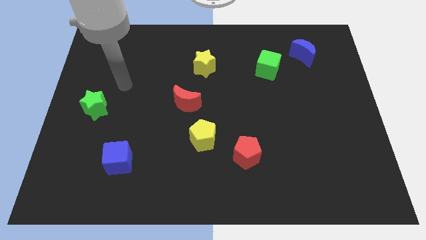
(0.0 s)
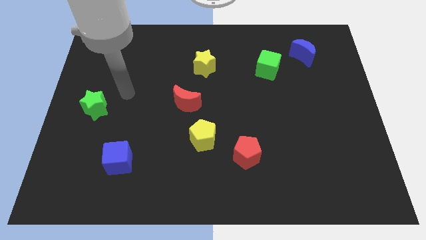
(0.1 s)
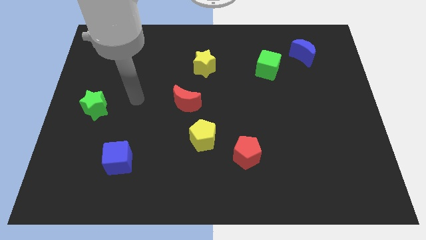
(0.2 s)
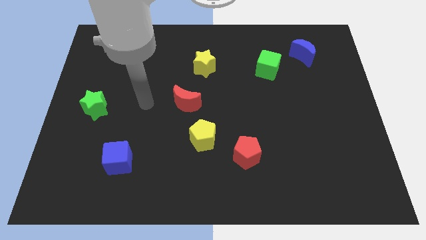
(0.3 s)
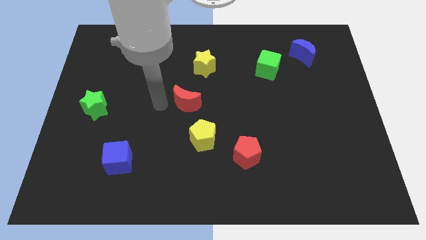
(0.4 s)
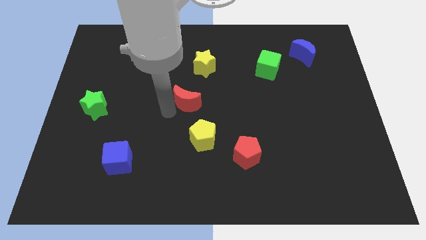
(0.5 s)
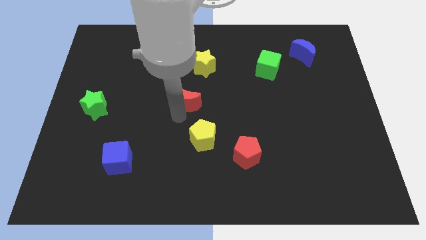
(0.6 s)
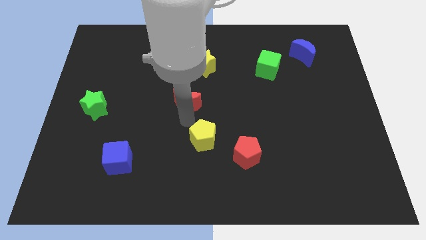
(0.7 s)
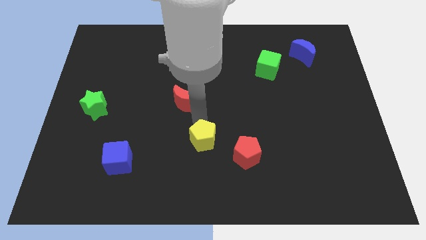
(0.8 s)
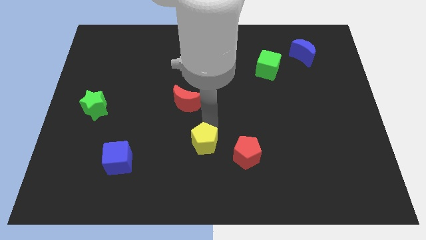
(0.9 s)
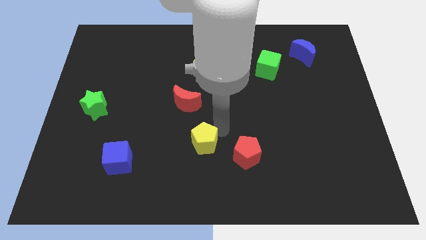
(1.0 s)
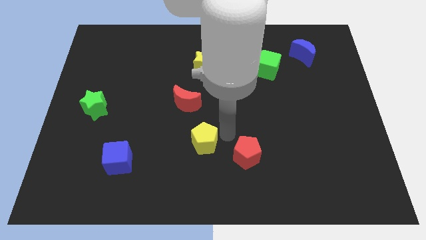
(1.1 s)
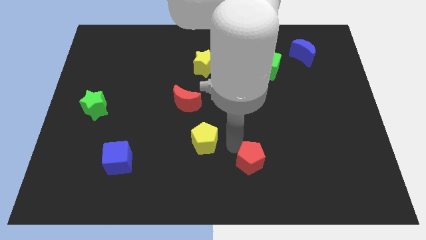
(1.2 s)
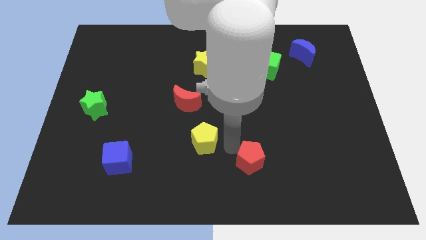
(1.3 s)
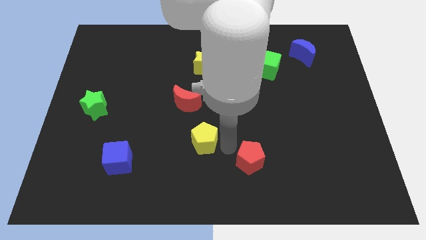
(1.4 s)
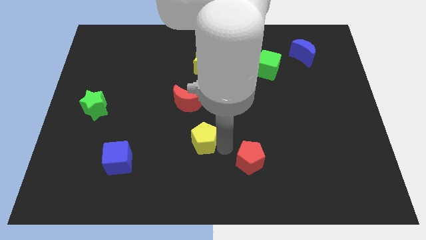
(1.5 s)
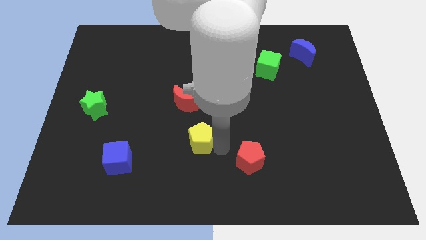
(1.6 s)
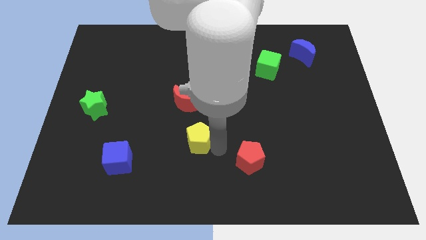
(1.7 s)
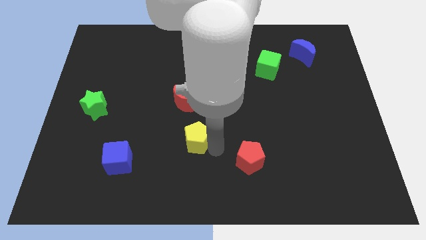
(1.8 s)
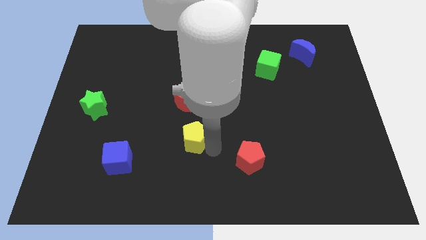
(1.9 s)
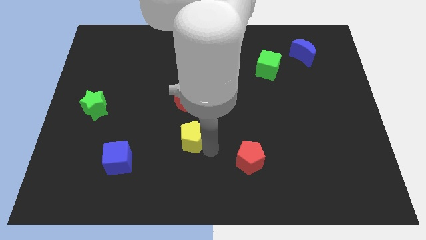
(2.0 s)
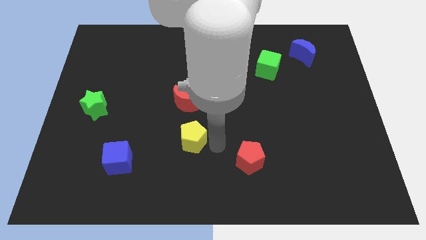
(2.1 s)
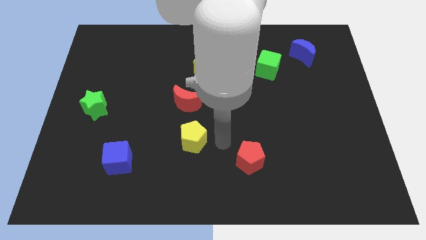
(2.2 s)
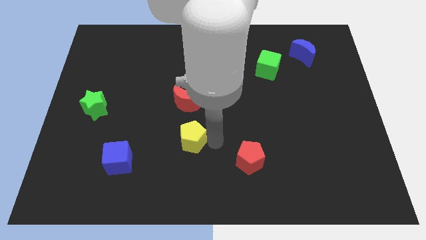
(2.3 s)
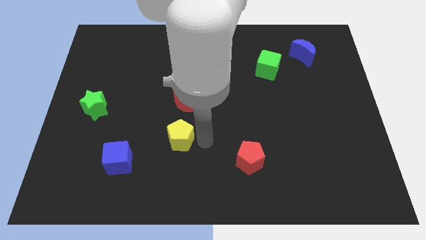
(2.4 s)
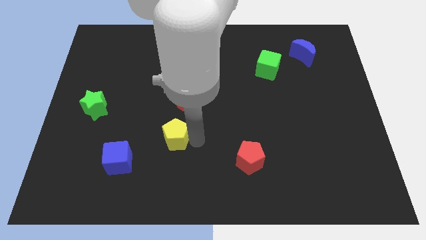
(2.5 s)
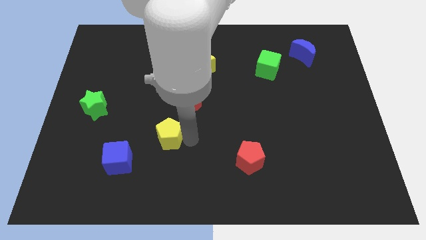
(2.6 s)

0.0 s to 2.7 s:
slide the yellow pentagon to the left somewhat

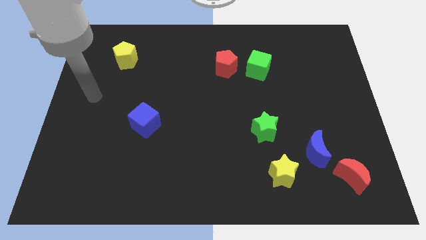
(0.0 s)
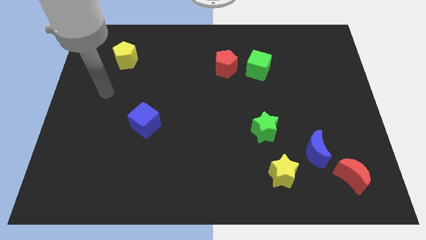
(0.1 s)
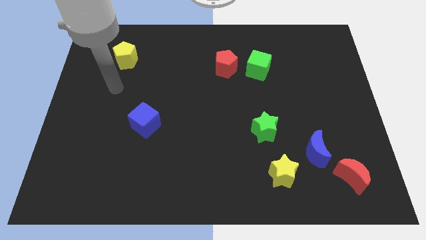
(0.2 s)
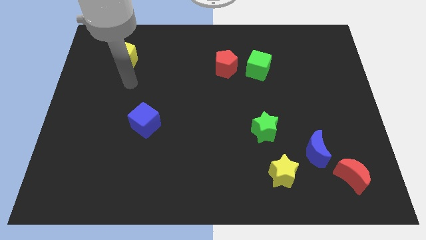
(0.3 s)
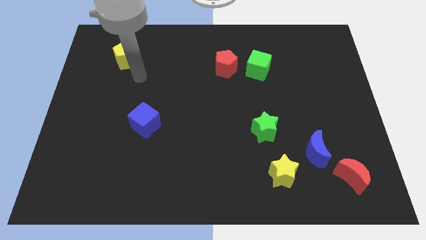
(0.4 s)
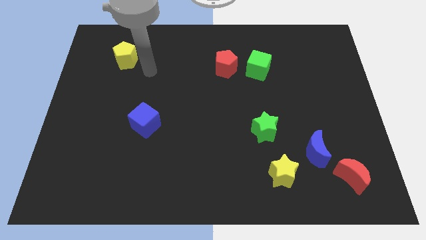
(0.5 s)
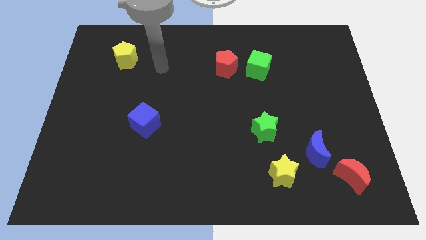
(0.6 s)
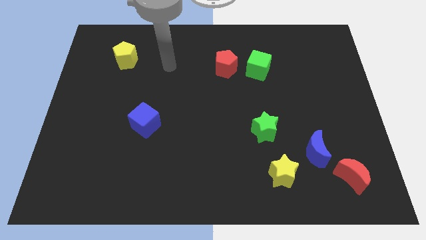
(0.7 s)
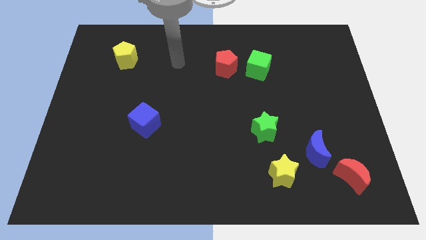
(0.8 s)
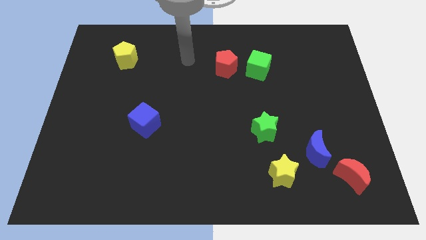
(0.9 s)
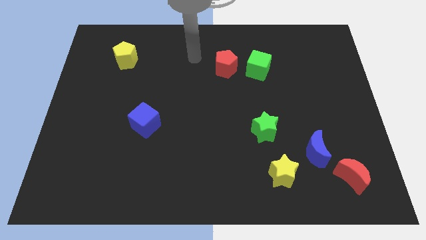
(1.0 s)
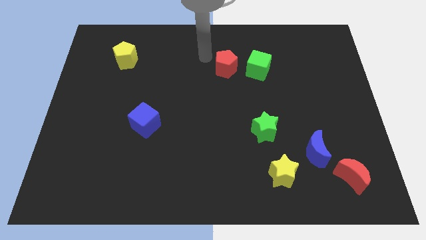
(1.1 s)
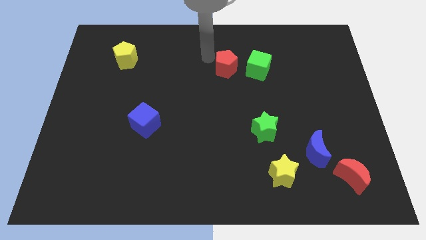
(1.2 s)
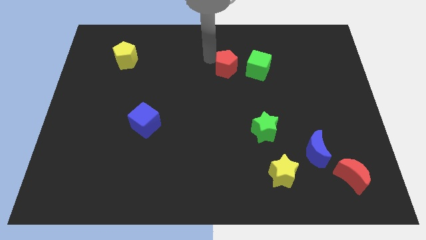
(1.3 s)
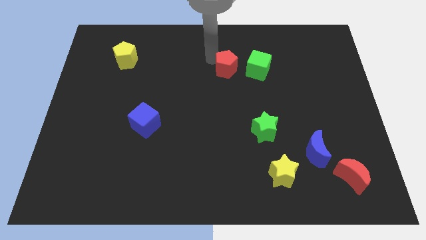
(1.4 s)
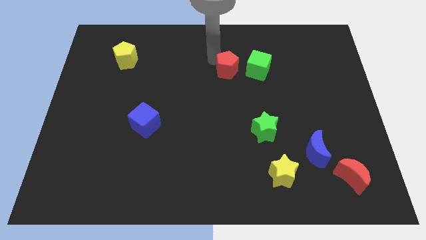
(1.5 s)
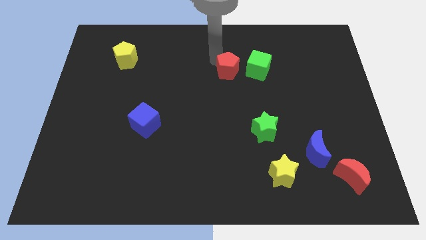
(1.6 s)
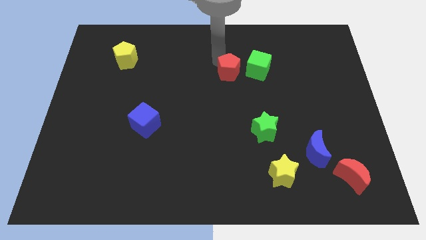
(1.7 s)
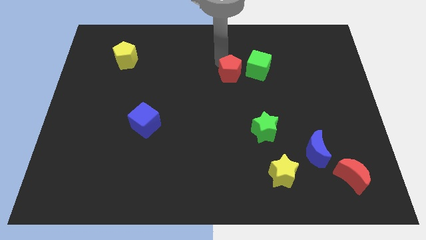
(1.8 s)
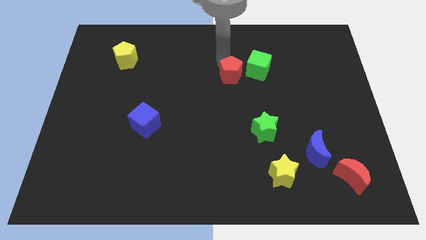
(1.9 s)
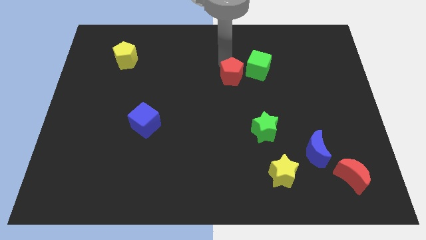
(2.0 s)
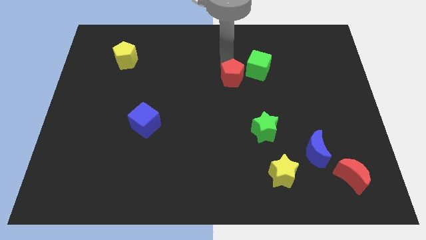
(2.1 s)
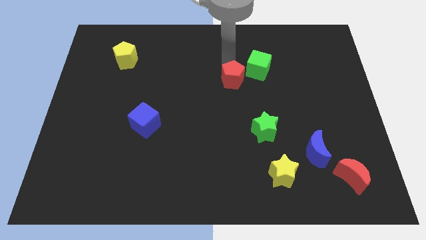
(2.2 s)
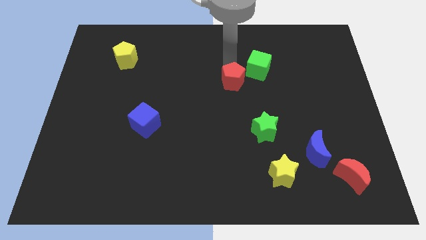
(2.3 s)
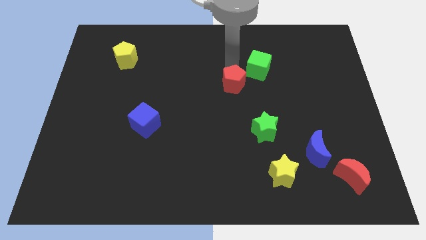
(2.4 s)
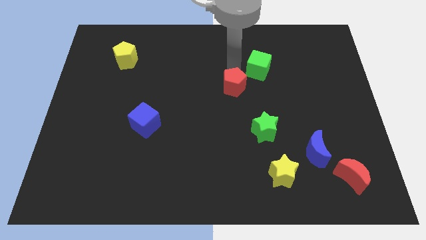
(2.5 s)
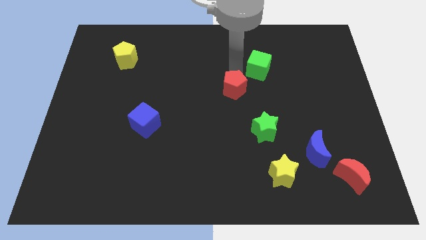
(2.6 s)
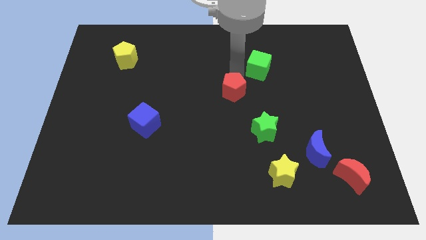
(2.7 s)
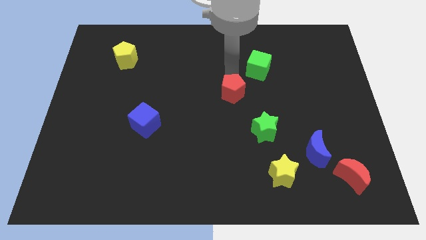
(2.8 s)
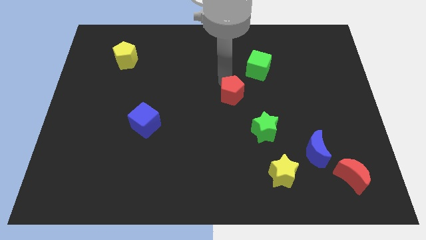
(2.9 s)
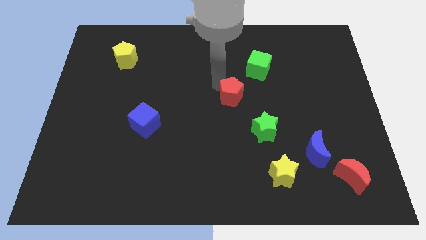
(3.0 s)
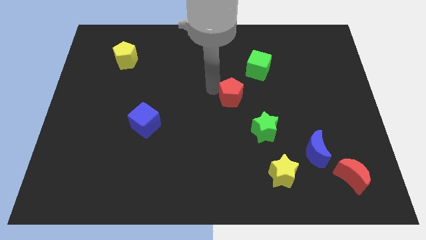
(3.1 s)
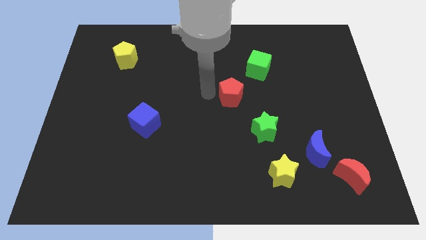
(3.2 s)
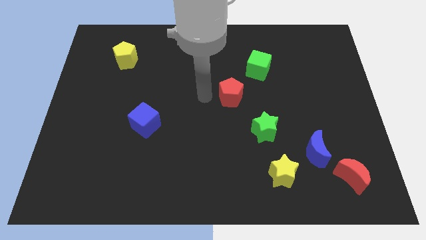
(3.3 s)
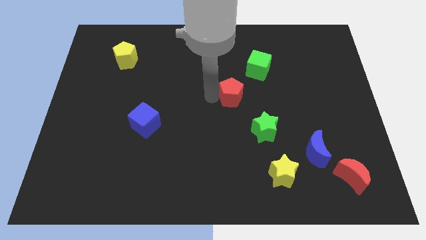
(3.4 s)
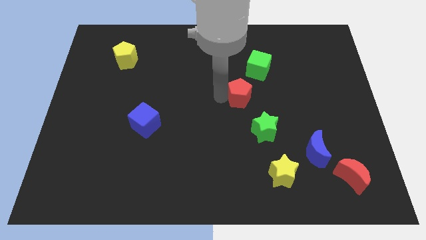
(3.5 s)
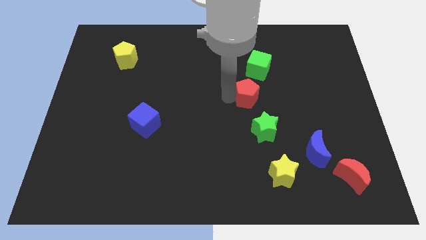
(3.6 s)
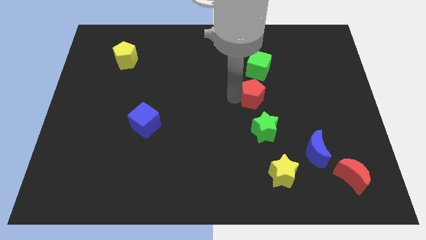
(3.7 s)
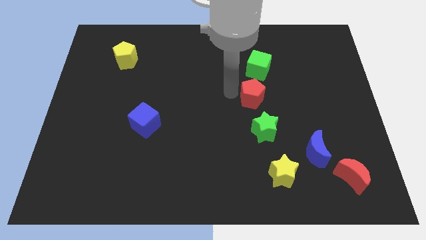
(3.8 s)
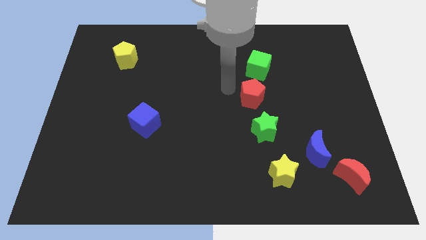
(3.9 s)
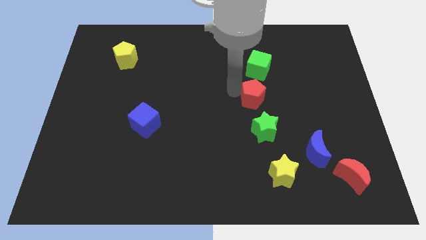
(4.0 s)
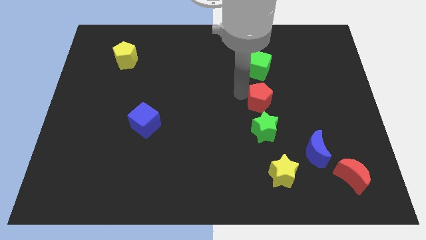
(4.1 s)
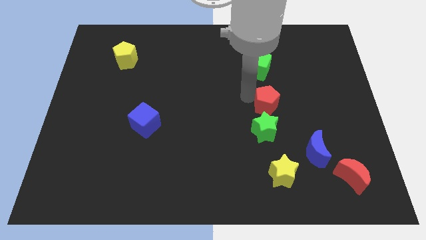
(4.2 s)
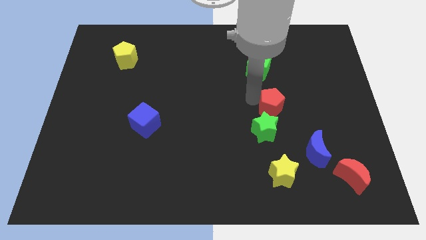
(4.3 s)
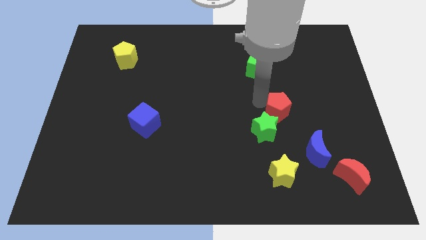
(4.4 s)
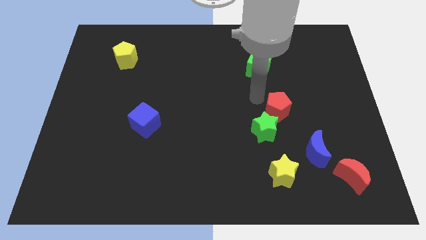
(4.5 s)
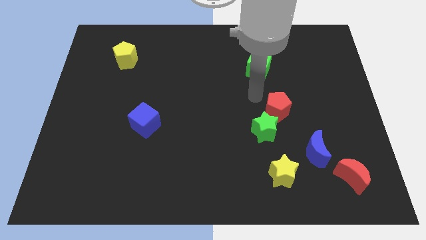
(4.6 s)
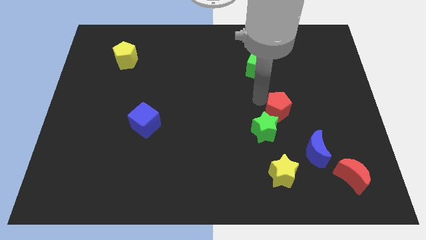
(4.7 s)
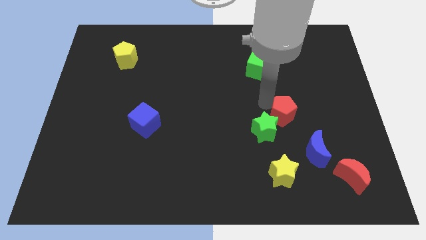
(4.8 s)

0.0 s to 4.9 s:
slide the red pentagon down and right

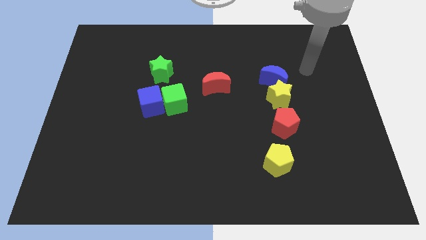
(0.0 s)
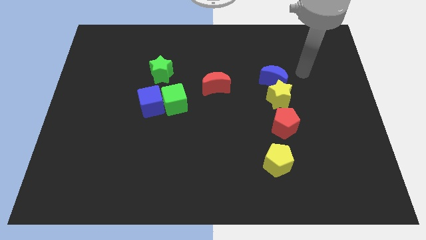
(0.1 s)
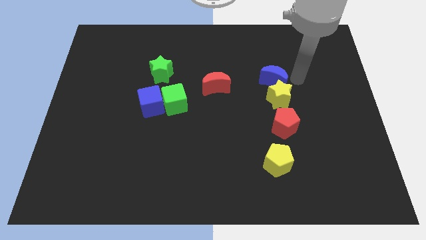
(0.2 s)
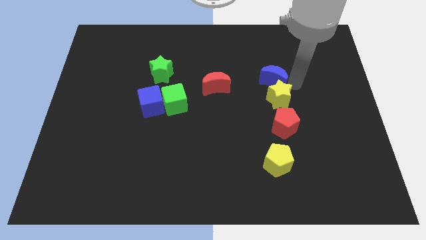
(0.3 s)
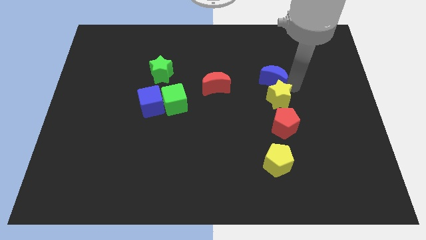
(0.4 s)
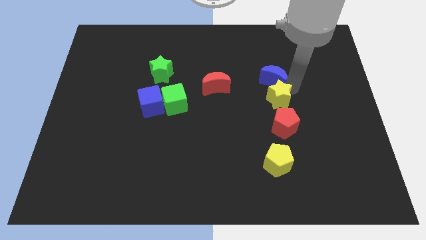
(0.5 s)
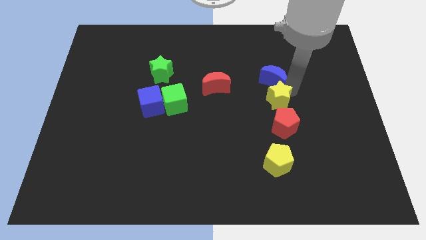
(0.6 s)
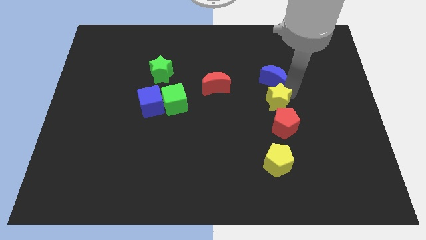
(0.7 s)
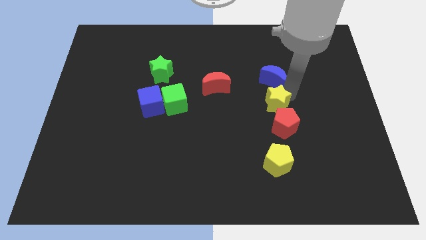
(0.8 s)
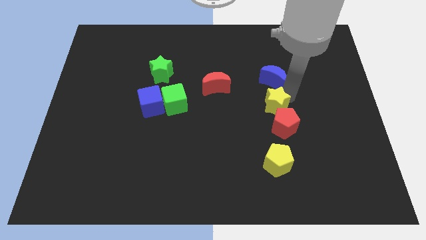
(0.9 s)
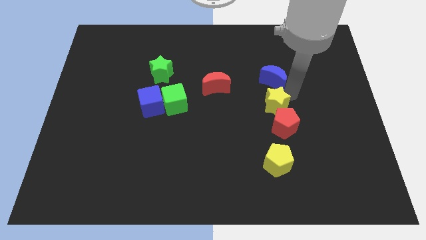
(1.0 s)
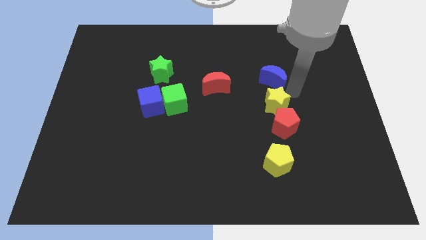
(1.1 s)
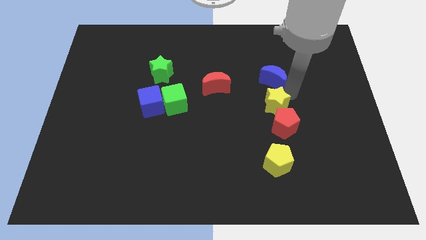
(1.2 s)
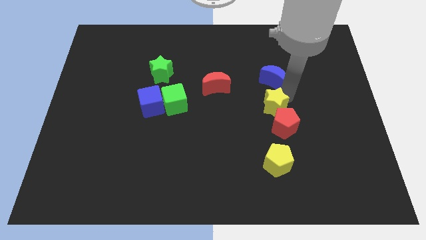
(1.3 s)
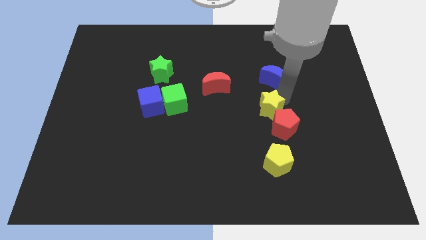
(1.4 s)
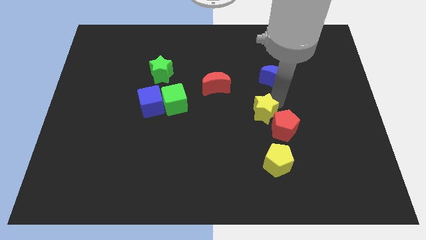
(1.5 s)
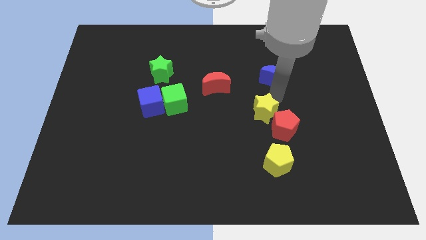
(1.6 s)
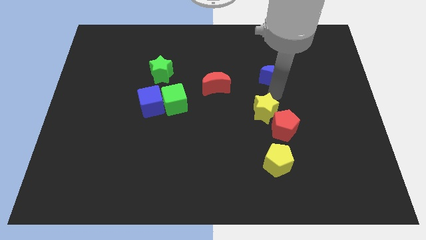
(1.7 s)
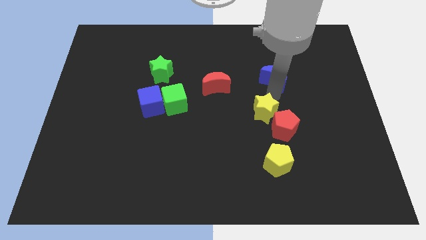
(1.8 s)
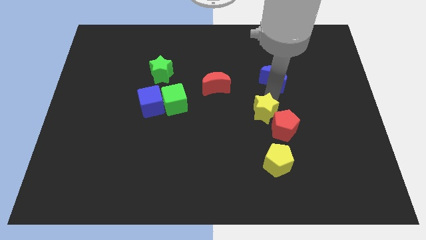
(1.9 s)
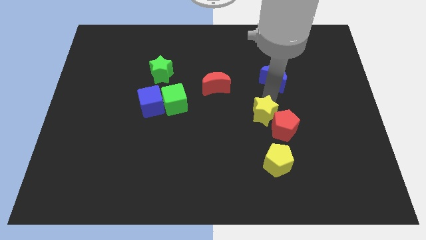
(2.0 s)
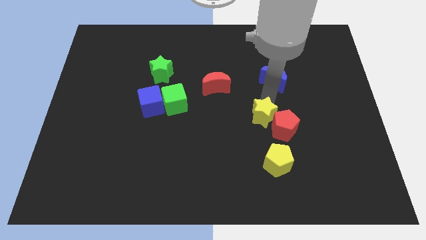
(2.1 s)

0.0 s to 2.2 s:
slightly move the yellow star downwards and to the left diagonally
